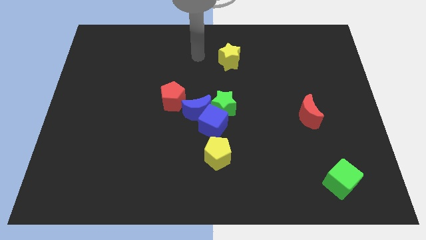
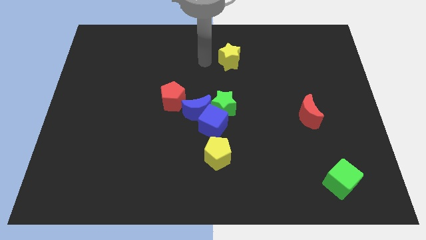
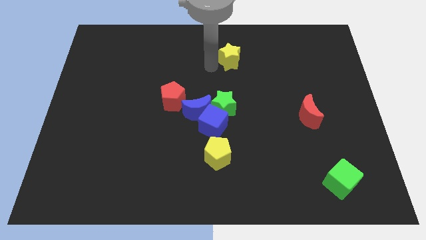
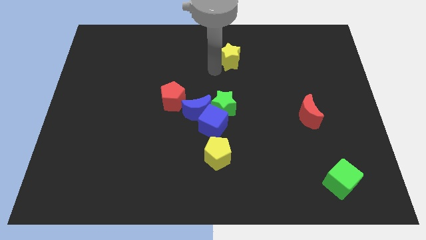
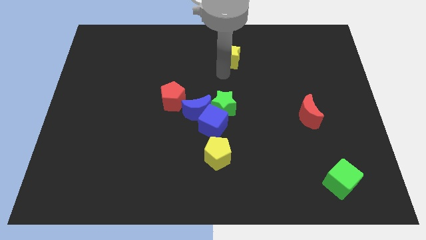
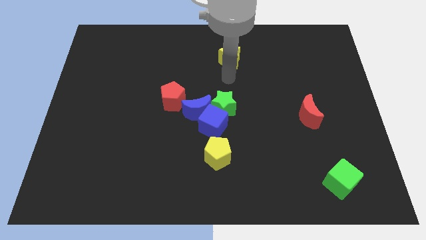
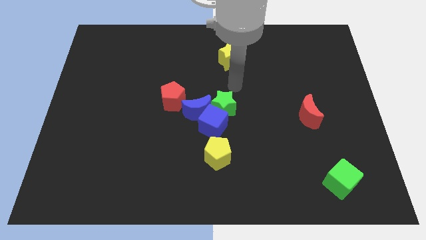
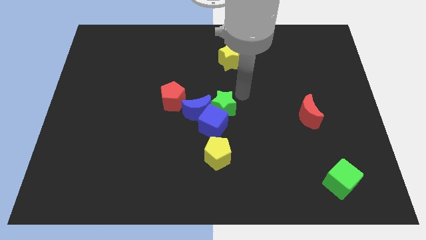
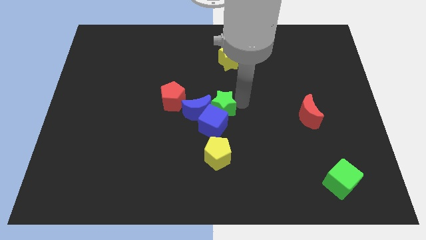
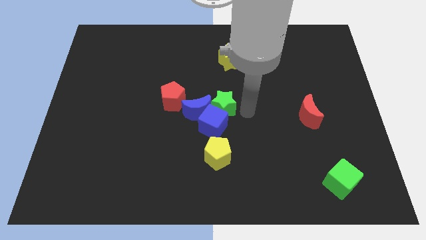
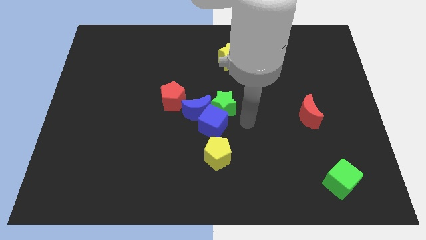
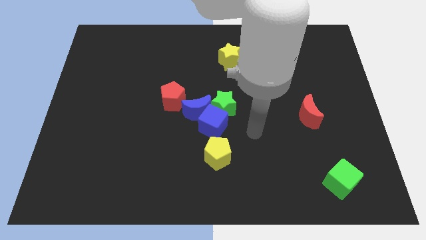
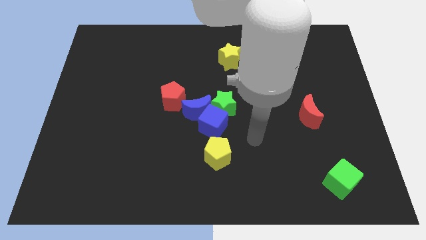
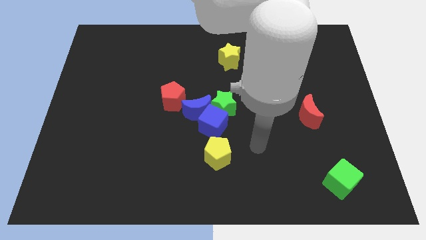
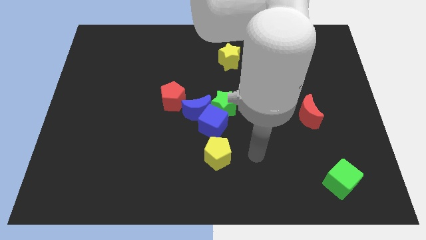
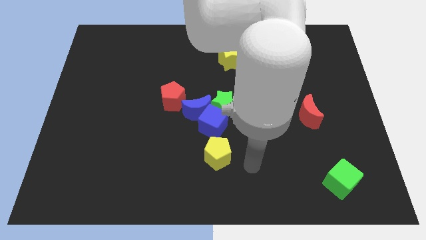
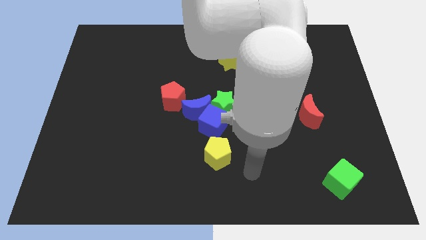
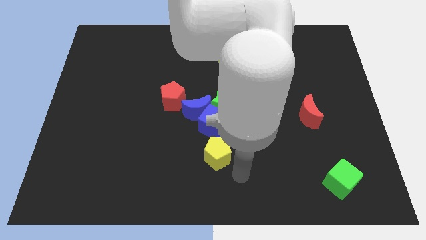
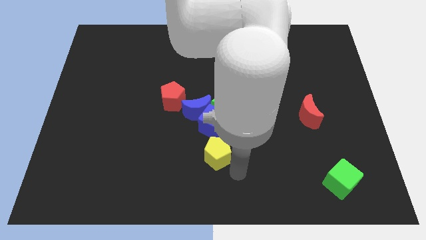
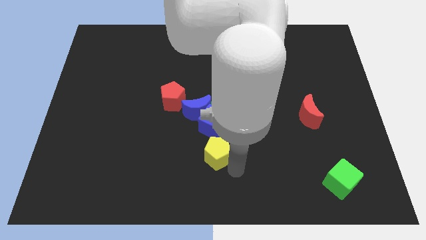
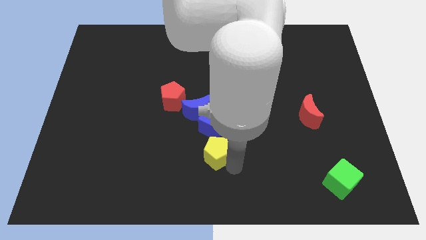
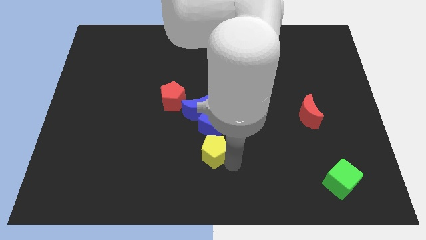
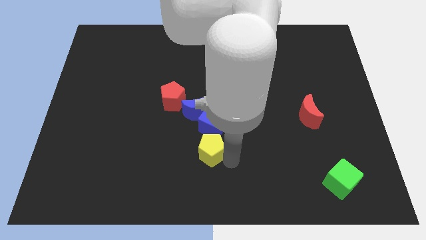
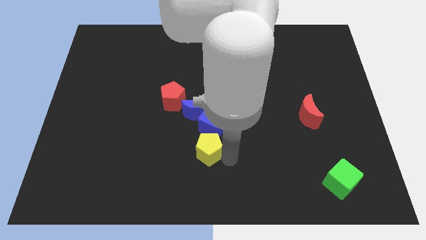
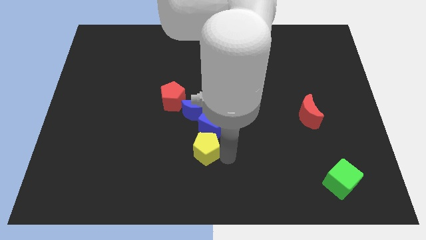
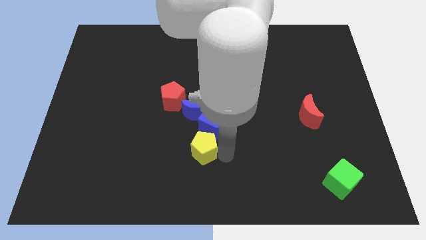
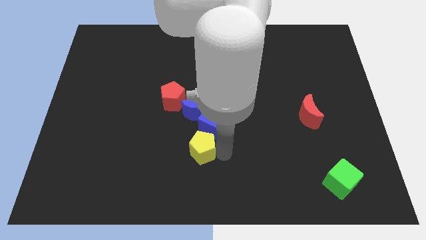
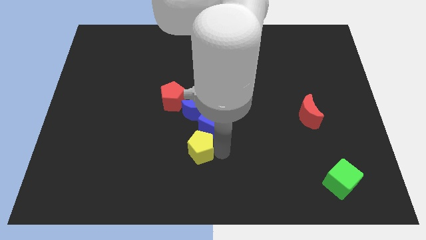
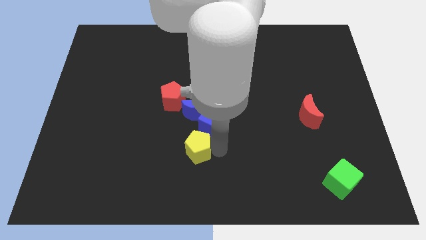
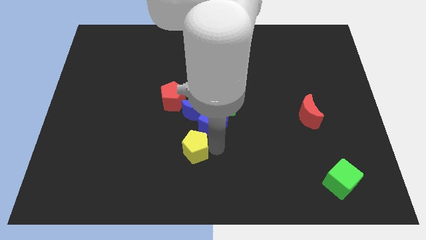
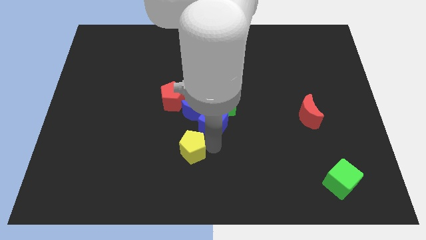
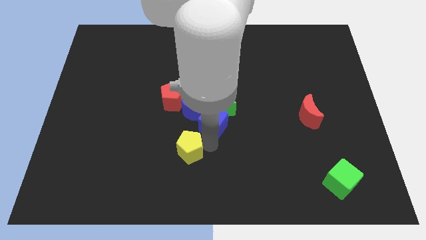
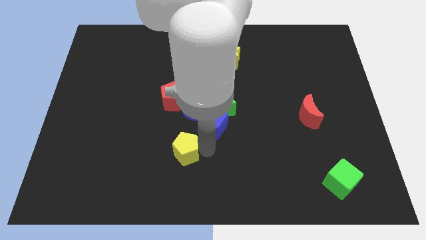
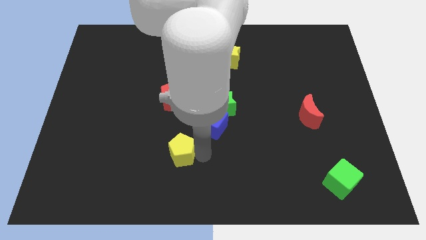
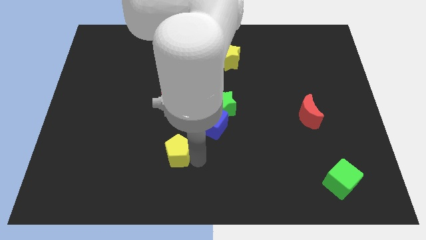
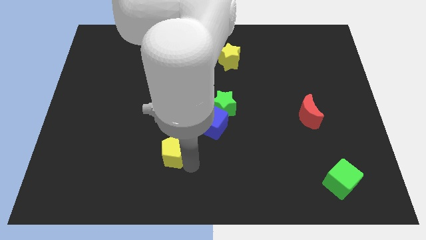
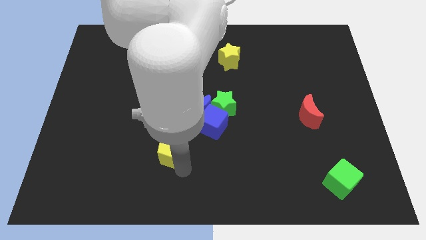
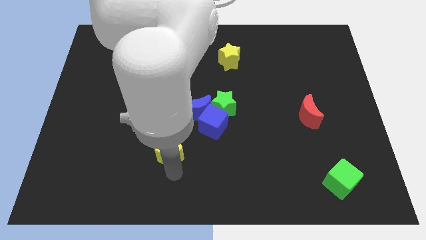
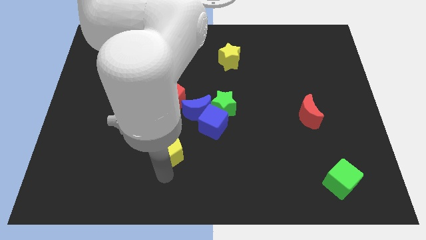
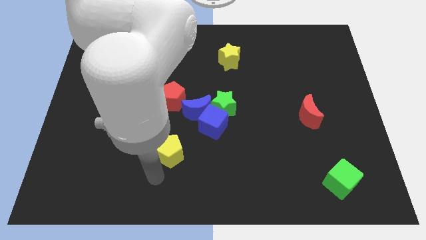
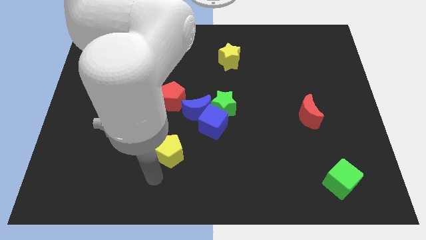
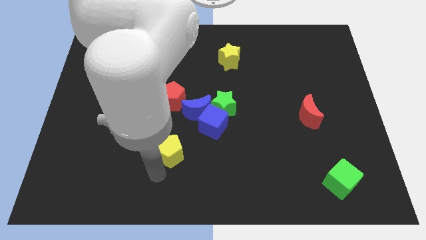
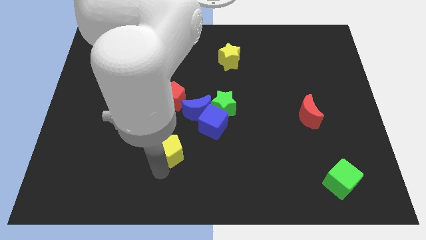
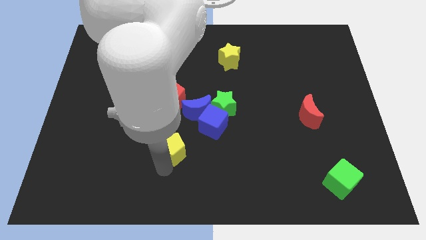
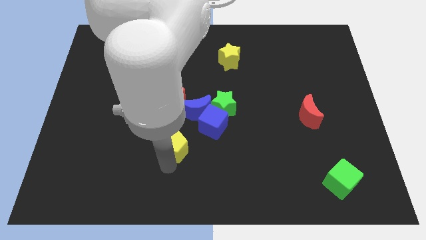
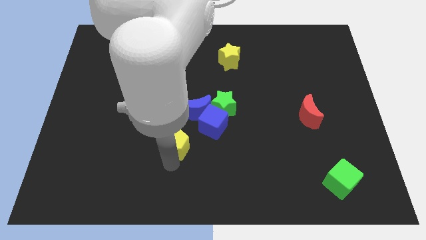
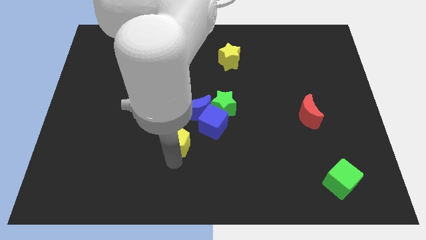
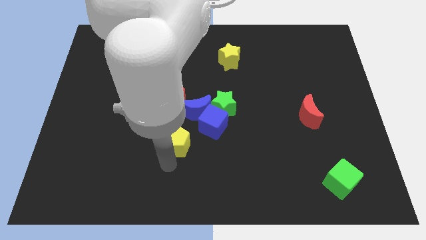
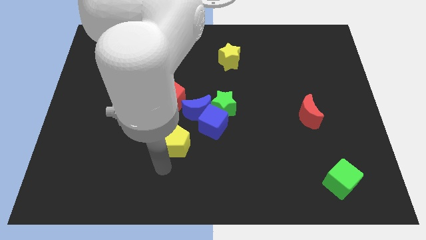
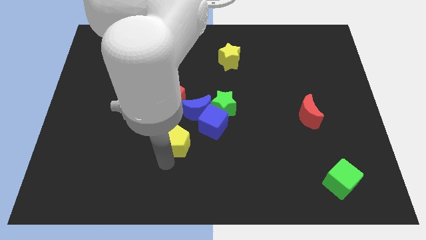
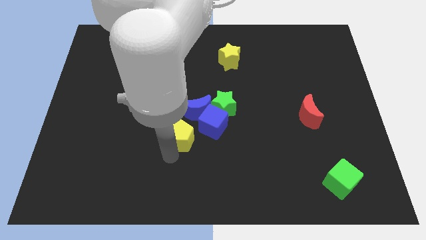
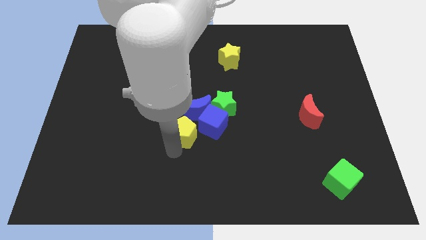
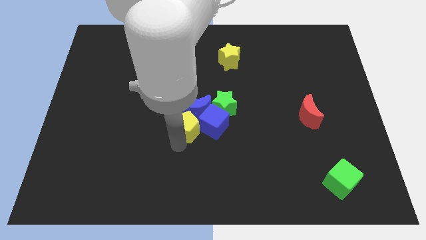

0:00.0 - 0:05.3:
slide the yellow pentagon to the blue moon

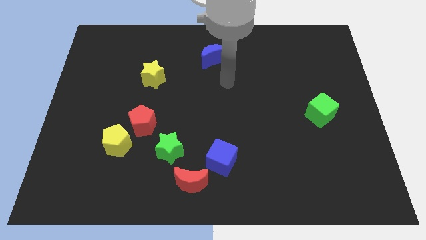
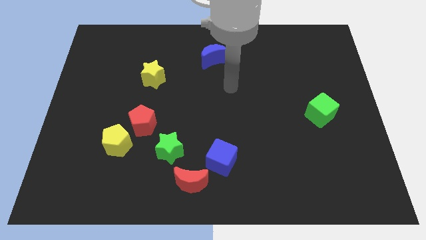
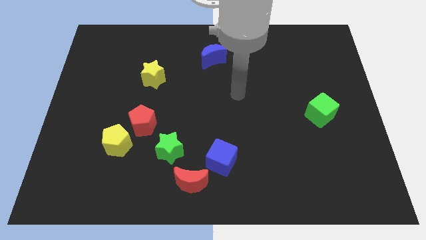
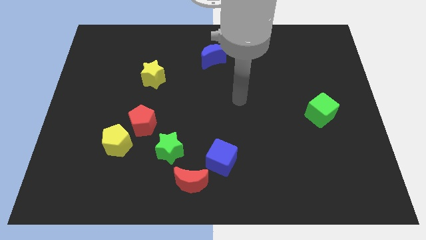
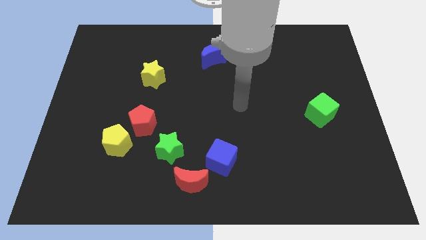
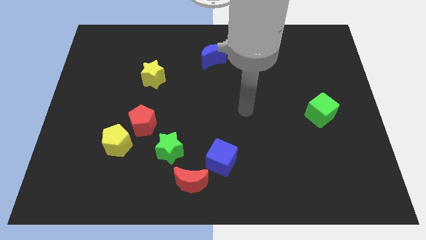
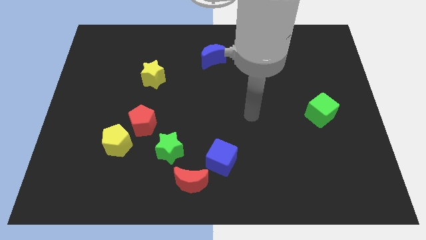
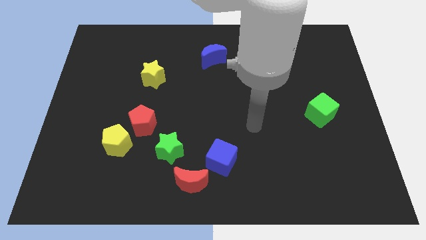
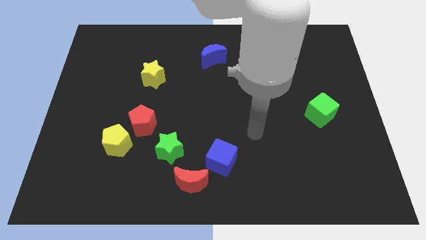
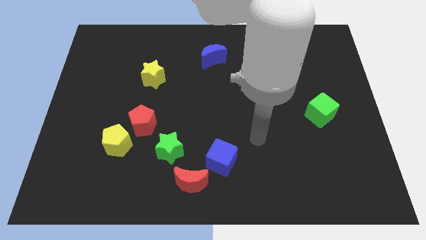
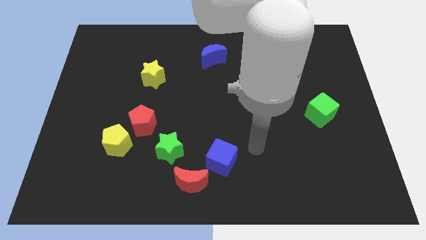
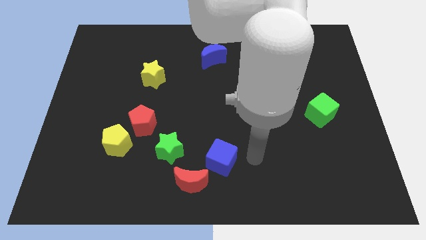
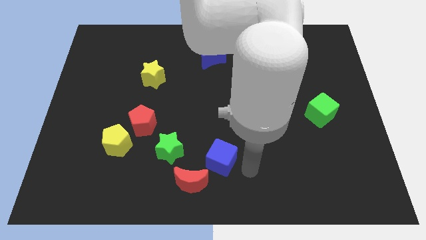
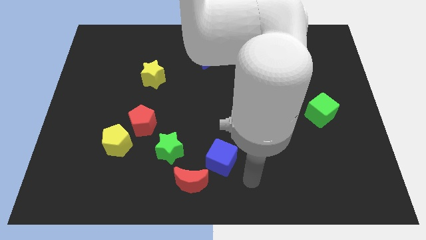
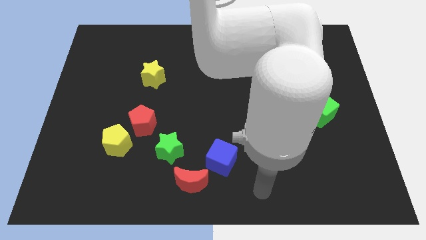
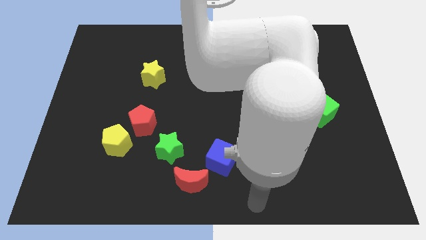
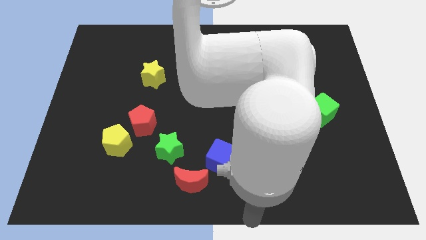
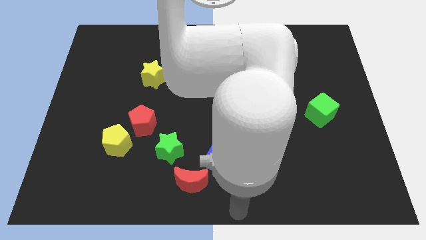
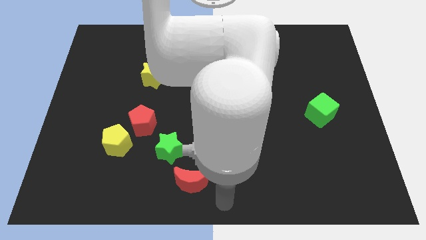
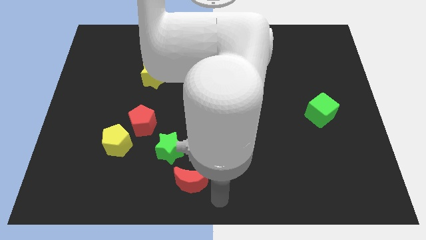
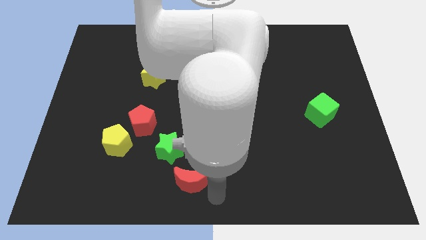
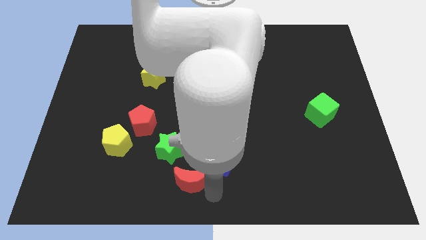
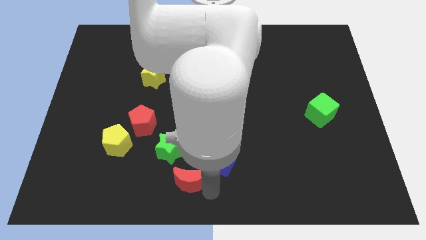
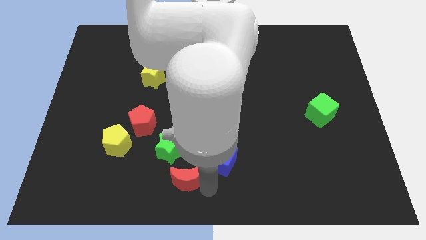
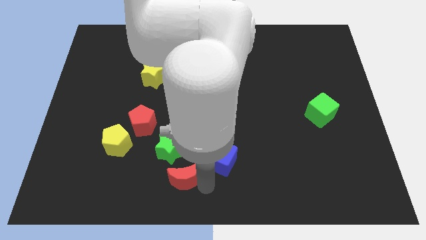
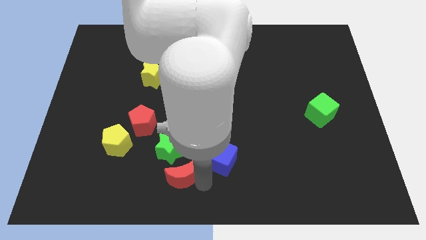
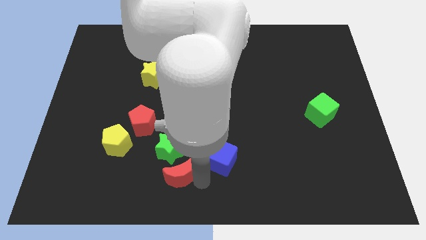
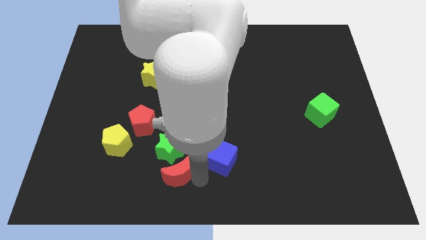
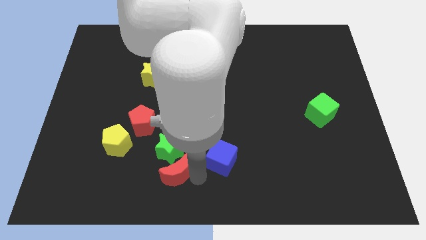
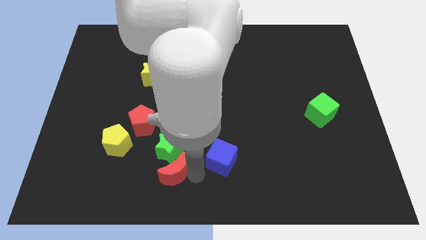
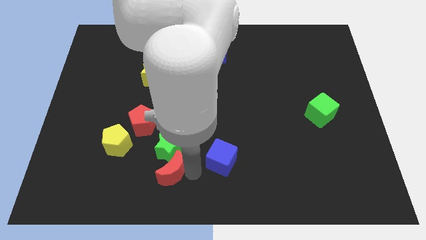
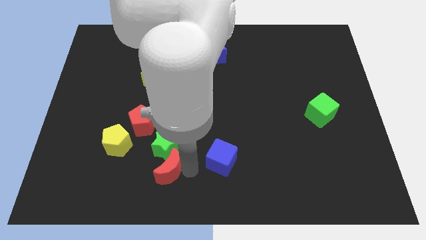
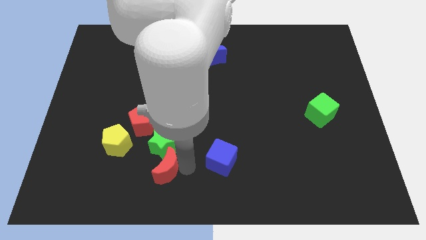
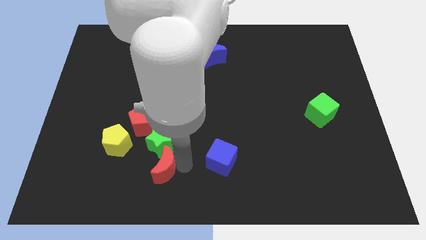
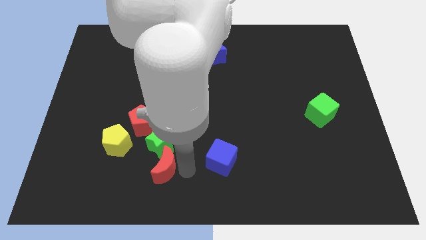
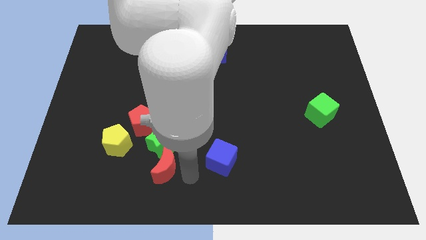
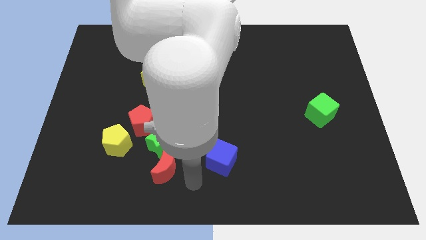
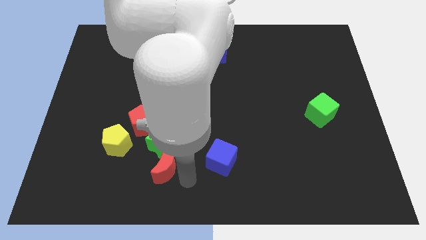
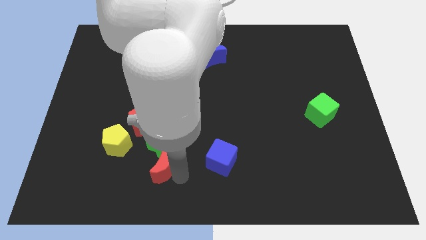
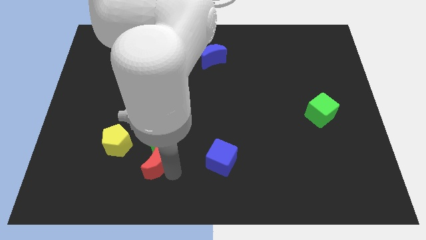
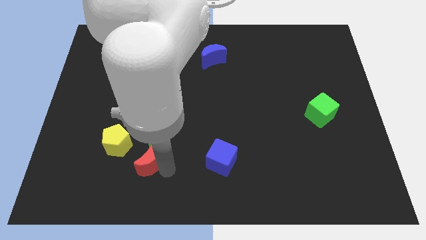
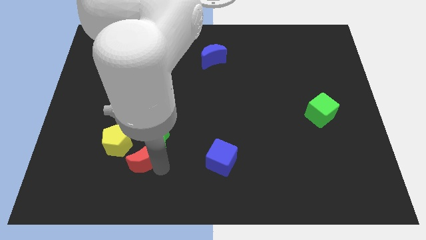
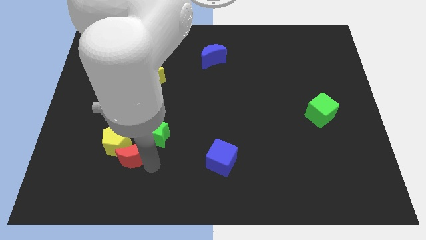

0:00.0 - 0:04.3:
push the red moon towards the yellow pentagon
